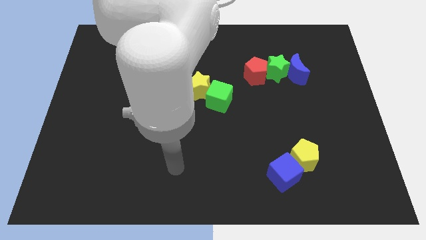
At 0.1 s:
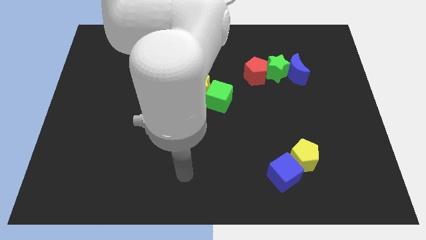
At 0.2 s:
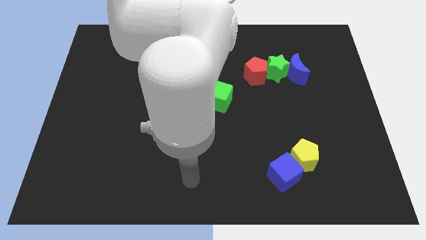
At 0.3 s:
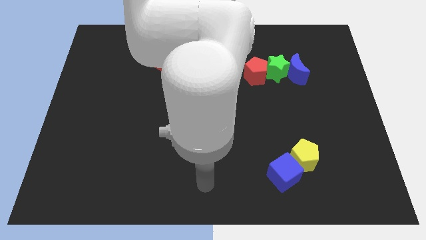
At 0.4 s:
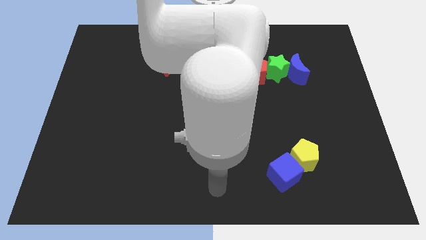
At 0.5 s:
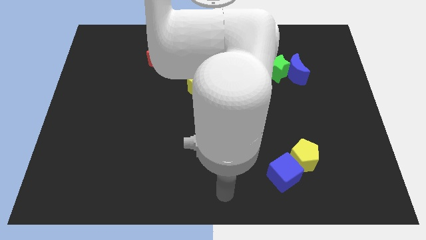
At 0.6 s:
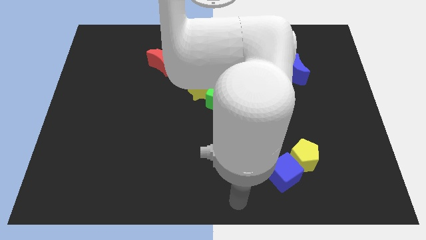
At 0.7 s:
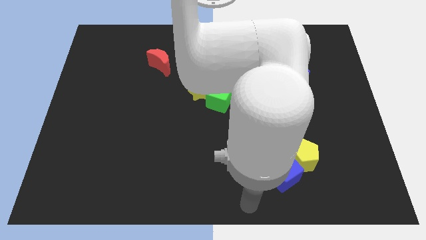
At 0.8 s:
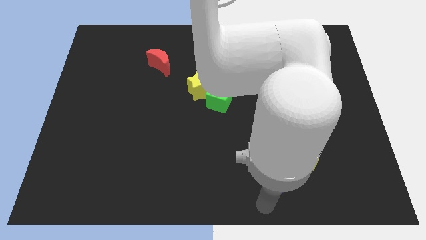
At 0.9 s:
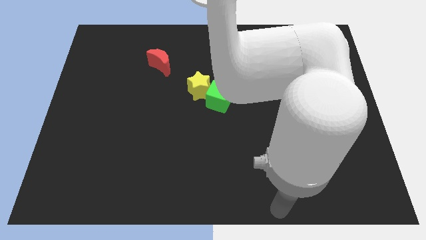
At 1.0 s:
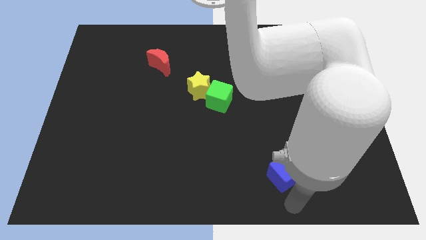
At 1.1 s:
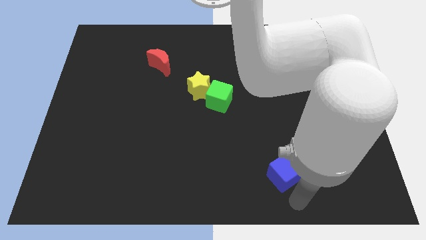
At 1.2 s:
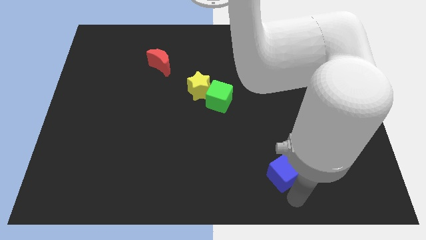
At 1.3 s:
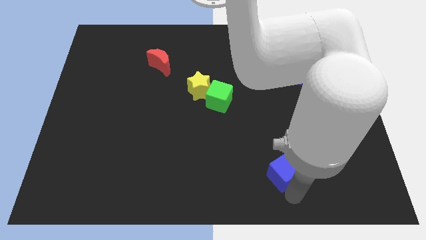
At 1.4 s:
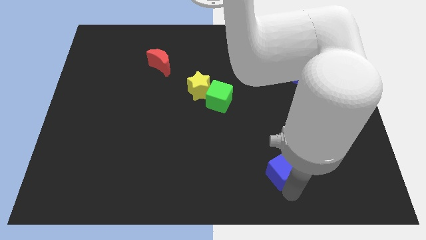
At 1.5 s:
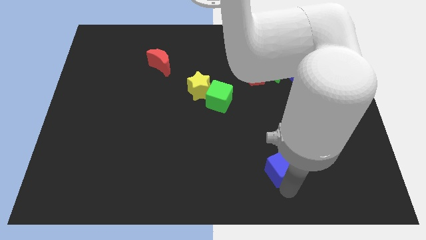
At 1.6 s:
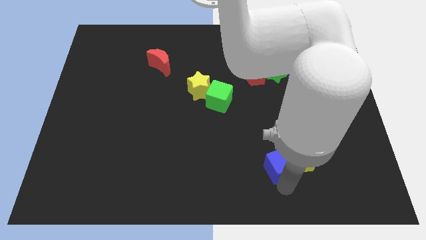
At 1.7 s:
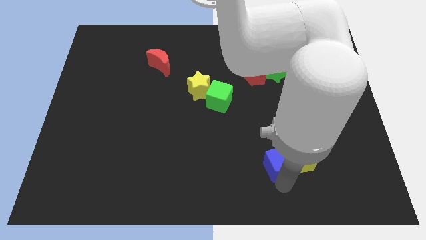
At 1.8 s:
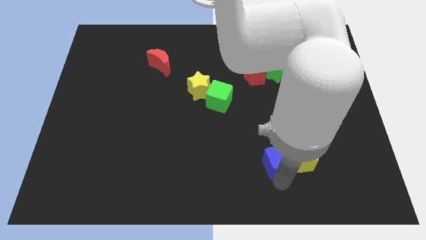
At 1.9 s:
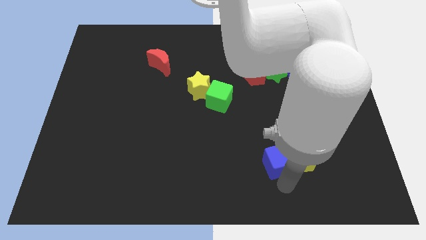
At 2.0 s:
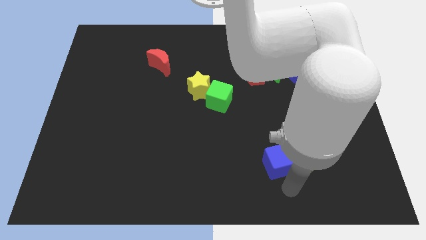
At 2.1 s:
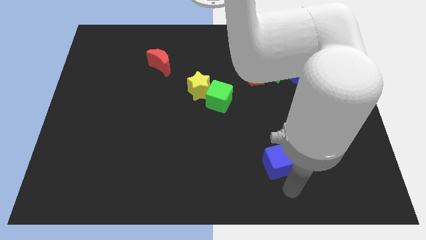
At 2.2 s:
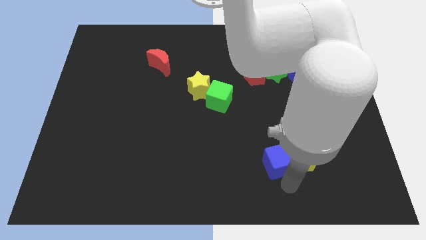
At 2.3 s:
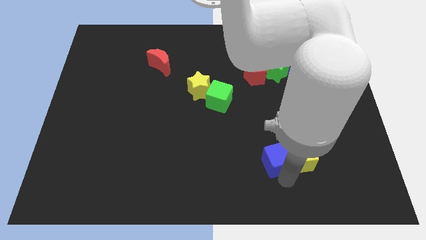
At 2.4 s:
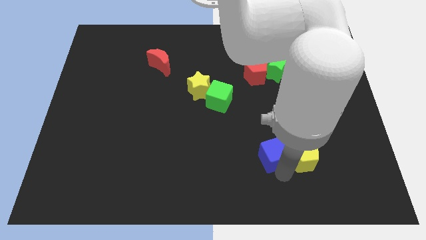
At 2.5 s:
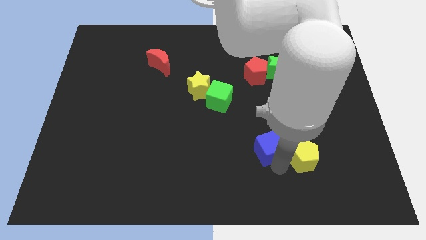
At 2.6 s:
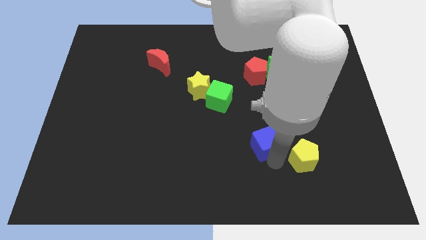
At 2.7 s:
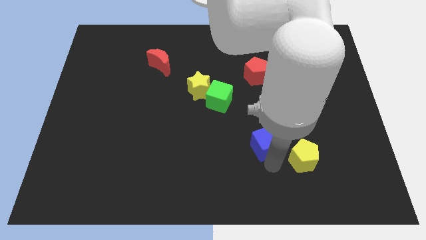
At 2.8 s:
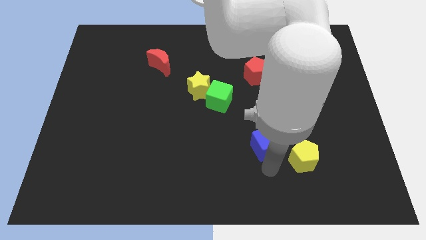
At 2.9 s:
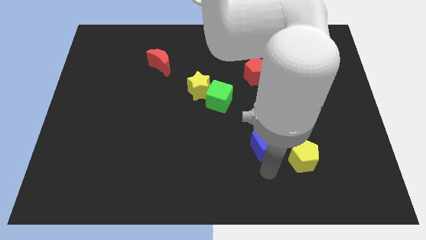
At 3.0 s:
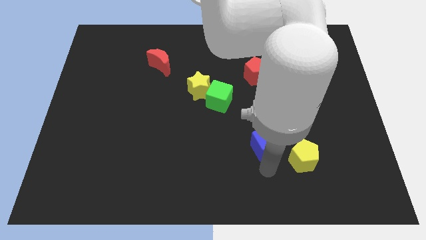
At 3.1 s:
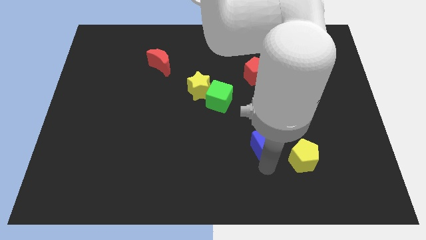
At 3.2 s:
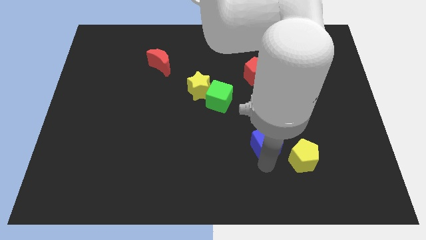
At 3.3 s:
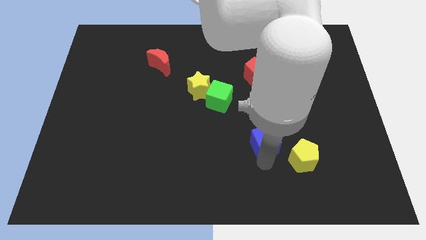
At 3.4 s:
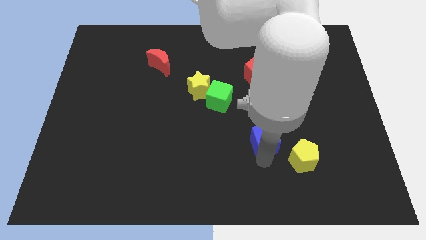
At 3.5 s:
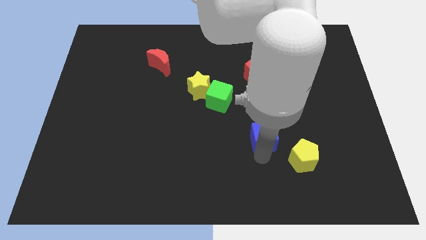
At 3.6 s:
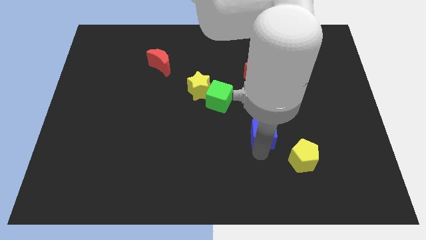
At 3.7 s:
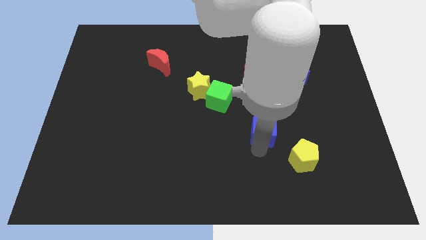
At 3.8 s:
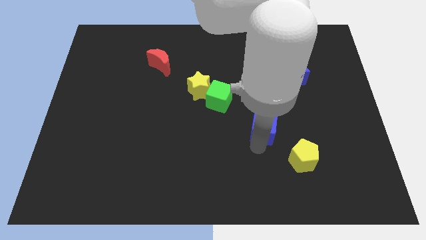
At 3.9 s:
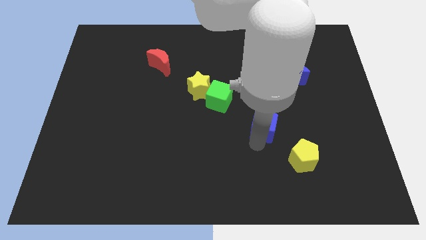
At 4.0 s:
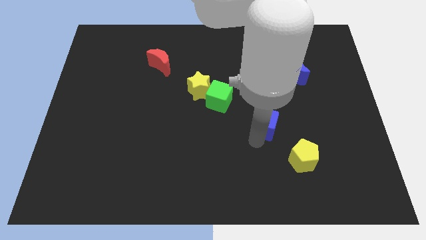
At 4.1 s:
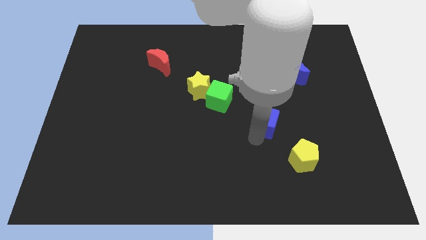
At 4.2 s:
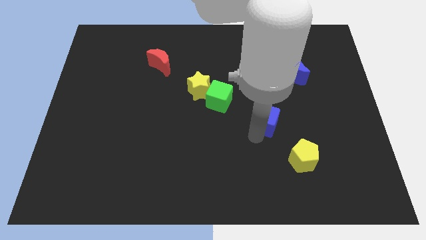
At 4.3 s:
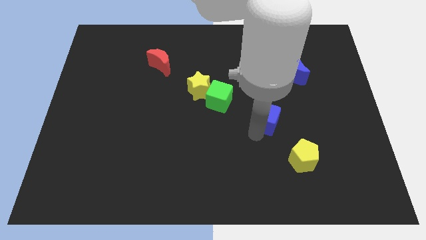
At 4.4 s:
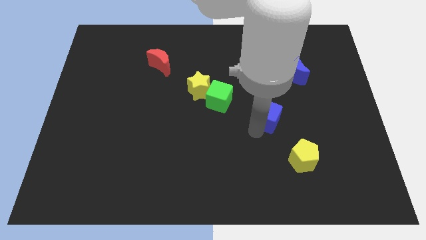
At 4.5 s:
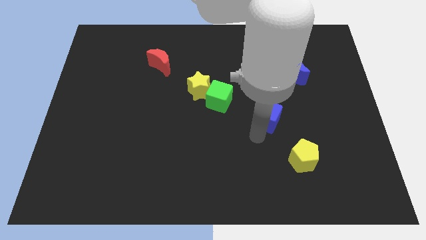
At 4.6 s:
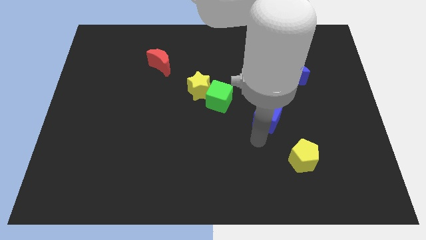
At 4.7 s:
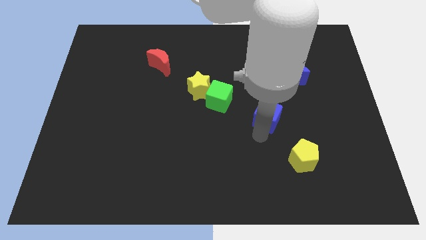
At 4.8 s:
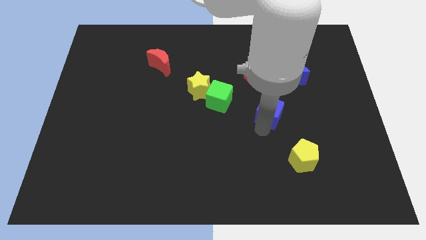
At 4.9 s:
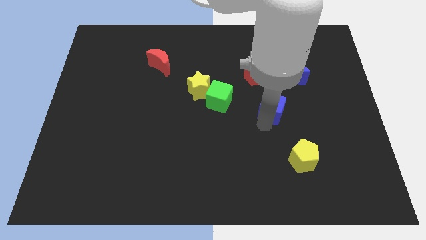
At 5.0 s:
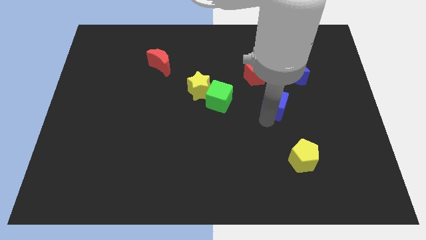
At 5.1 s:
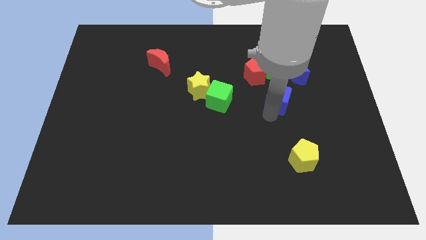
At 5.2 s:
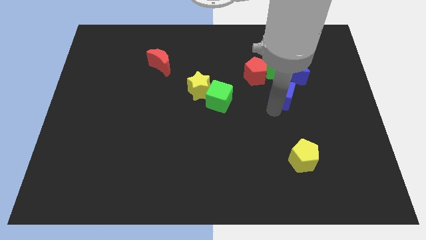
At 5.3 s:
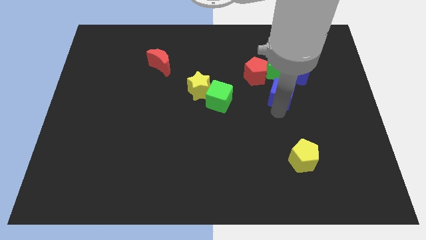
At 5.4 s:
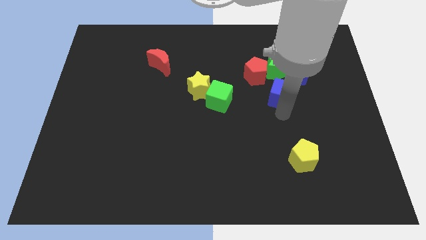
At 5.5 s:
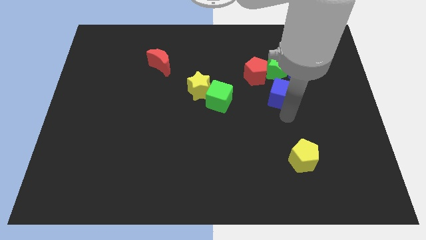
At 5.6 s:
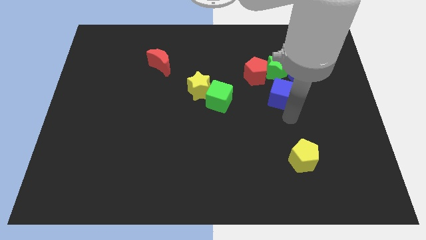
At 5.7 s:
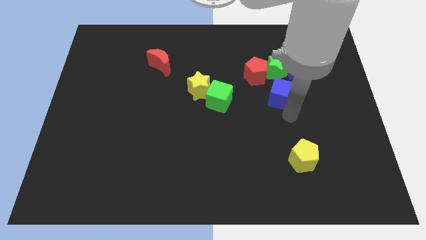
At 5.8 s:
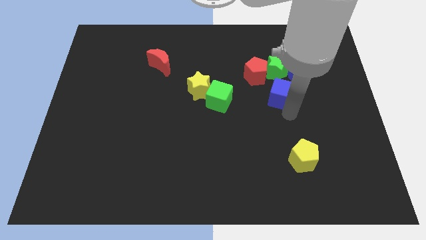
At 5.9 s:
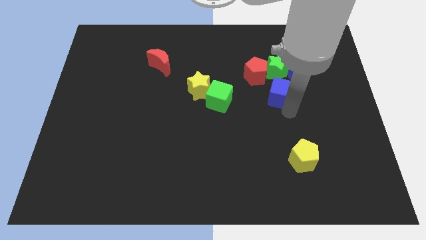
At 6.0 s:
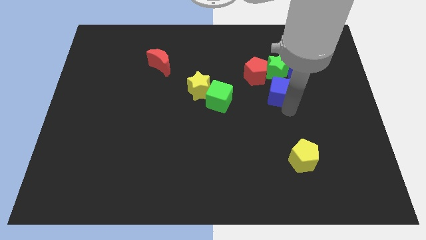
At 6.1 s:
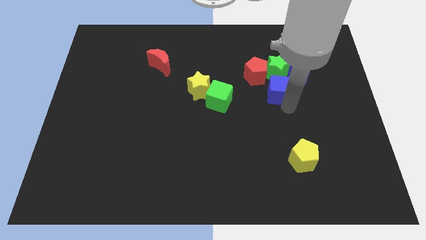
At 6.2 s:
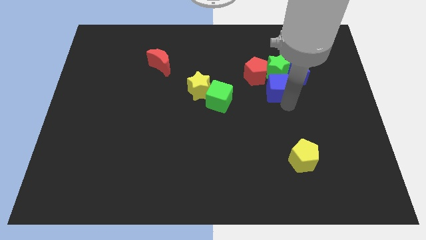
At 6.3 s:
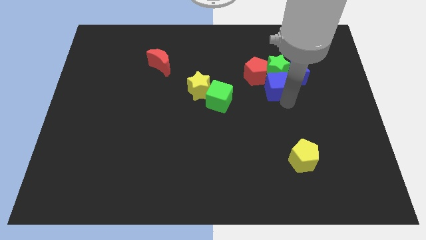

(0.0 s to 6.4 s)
push the blue cube next to the green star
